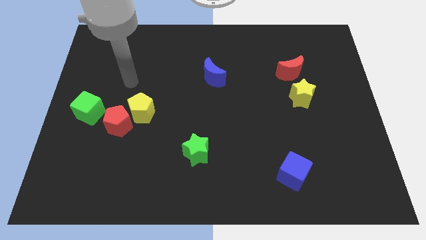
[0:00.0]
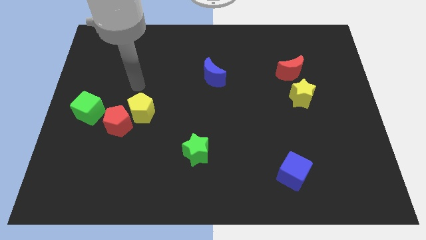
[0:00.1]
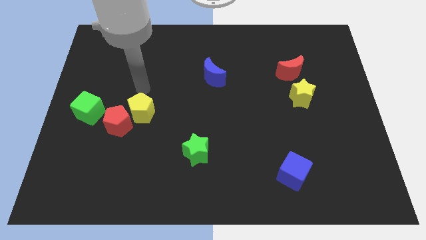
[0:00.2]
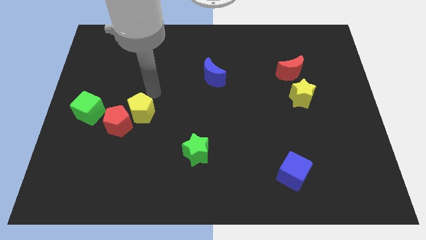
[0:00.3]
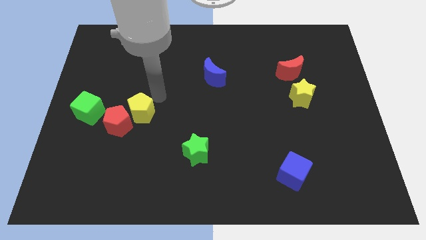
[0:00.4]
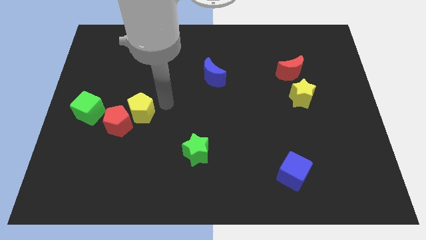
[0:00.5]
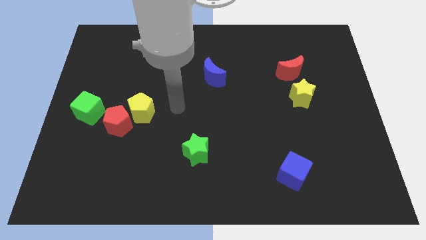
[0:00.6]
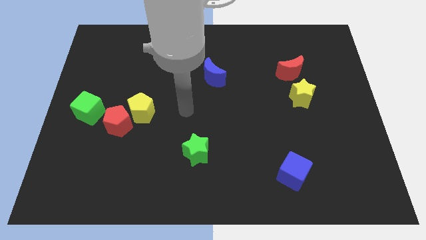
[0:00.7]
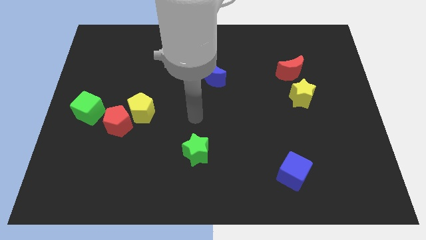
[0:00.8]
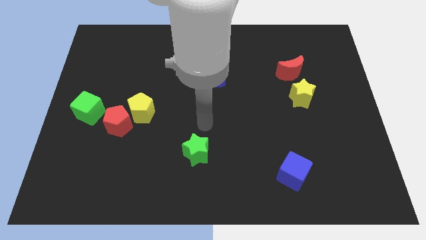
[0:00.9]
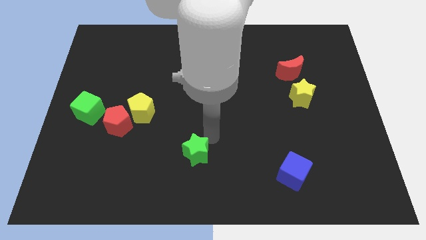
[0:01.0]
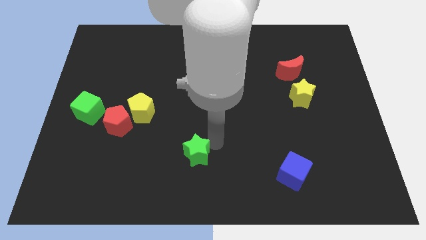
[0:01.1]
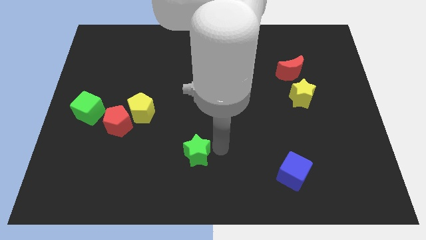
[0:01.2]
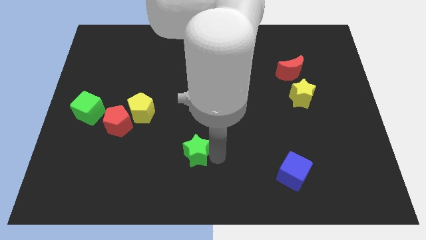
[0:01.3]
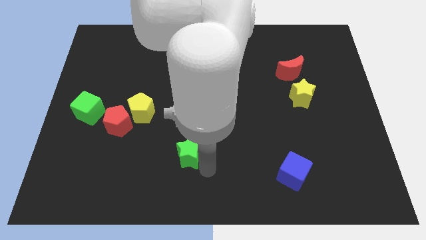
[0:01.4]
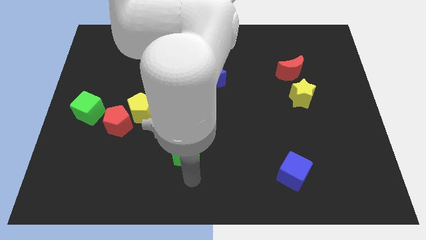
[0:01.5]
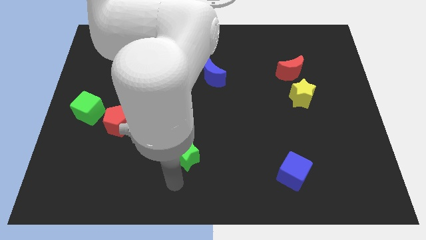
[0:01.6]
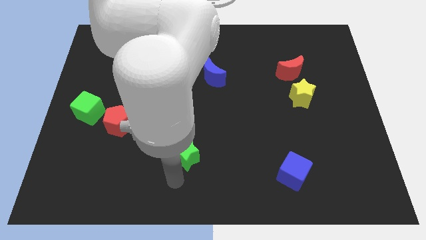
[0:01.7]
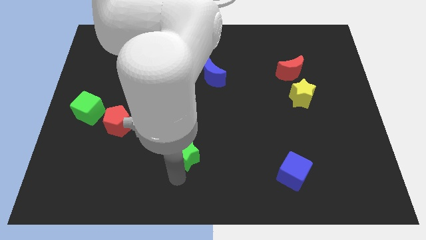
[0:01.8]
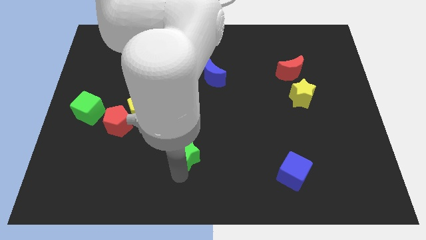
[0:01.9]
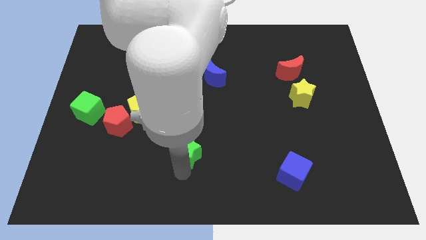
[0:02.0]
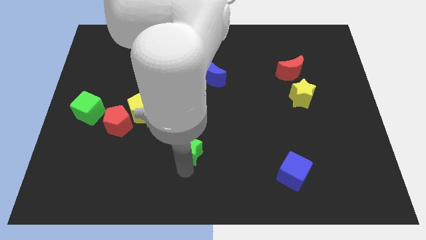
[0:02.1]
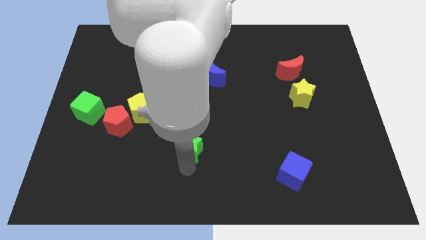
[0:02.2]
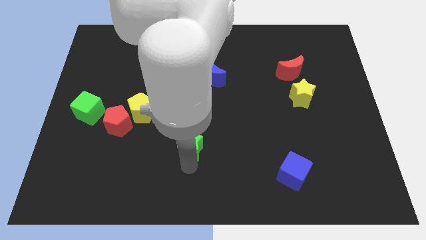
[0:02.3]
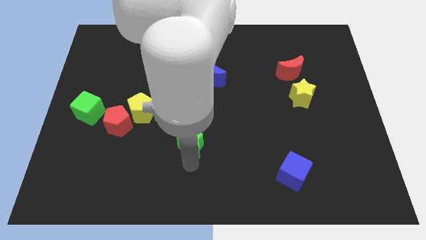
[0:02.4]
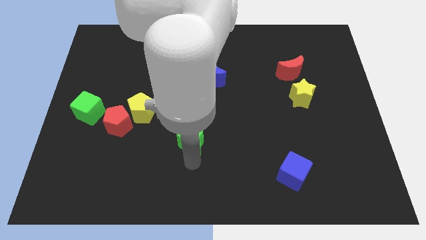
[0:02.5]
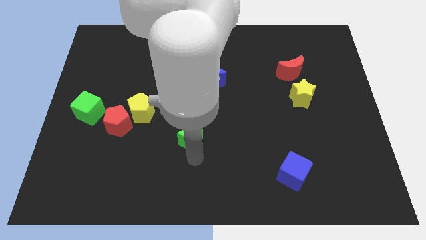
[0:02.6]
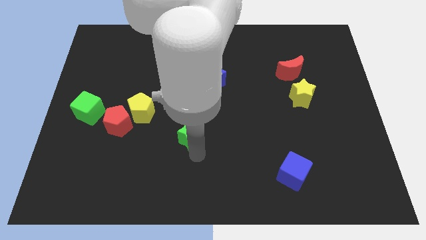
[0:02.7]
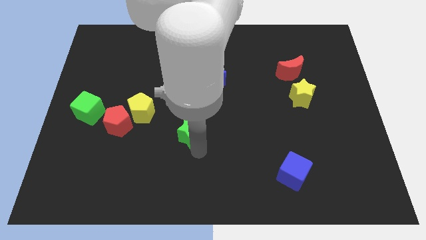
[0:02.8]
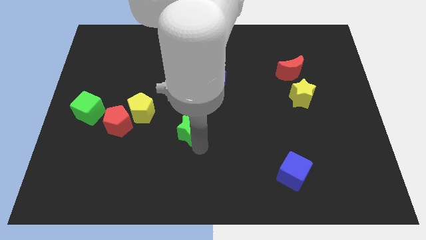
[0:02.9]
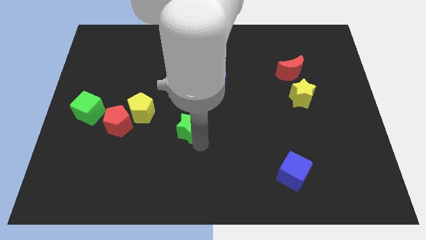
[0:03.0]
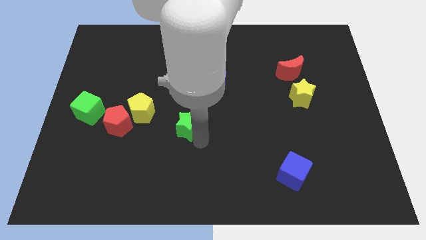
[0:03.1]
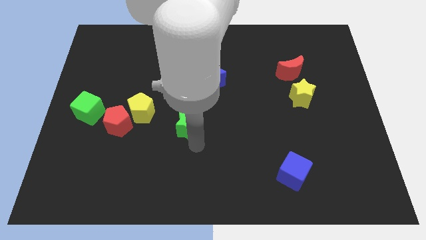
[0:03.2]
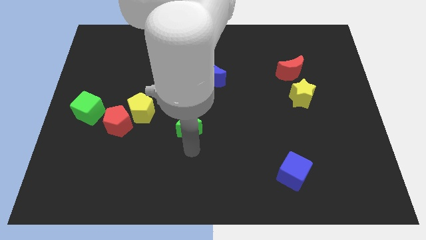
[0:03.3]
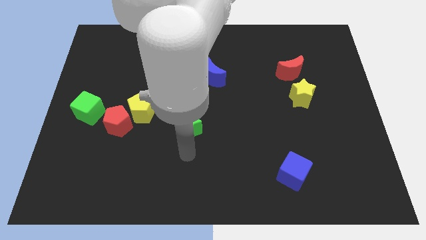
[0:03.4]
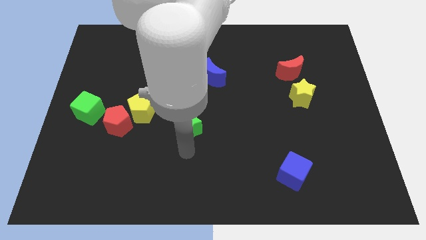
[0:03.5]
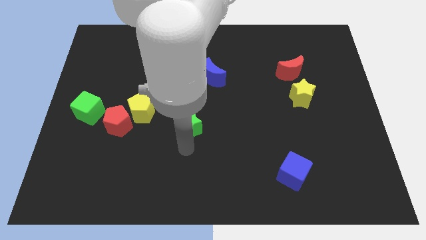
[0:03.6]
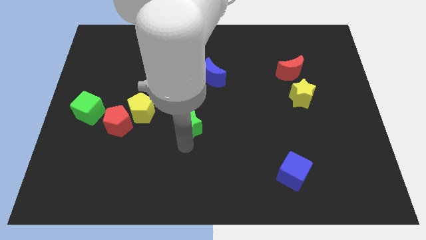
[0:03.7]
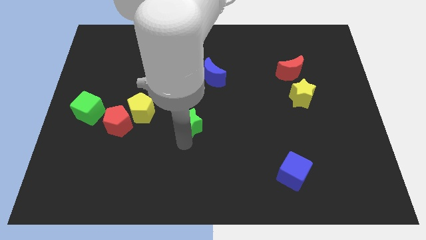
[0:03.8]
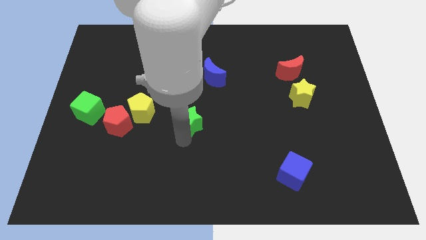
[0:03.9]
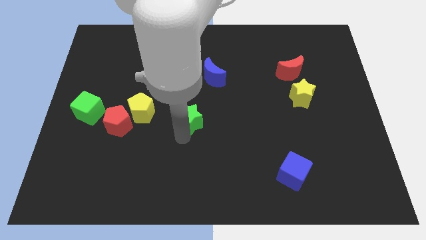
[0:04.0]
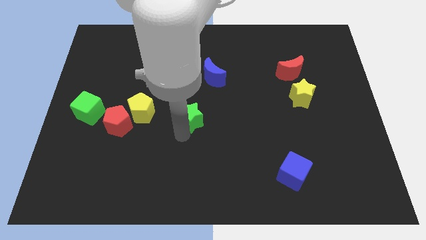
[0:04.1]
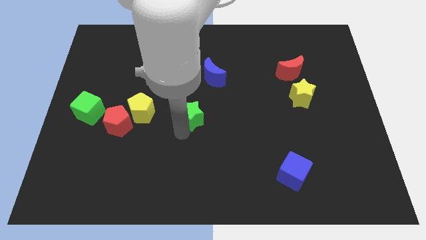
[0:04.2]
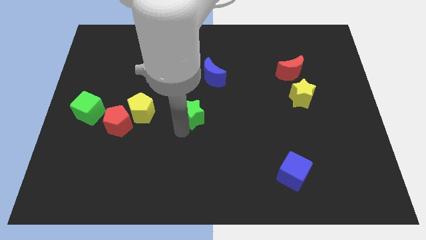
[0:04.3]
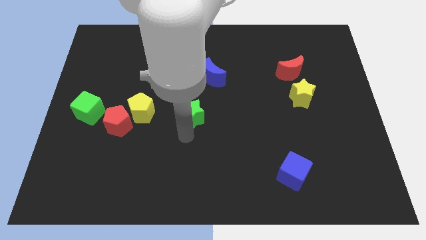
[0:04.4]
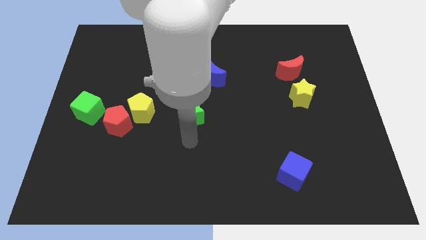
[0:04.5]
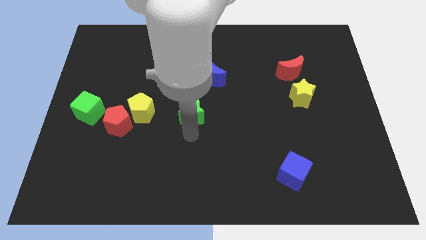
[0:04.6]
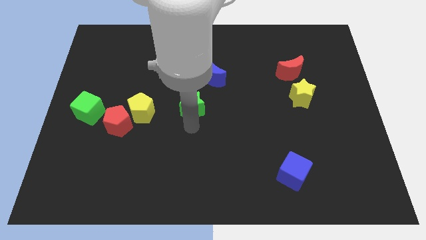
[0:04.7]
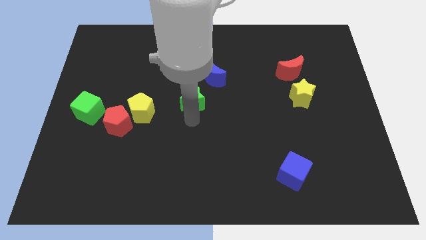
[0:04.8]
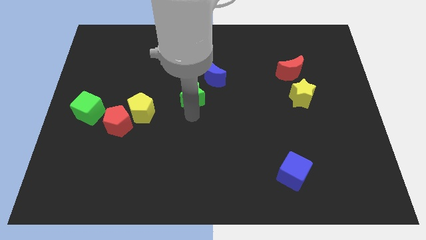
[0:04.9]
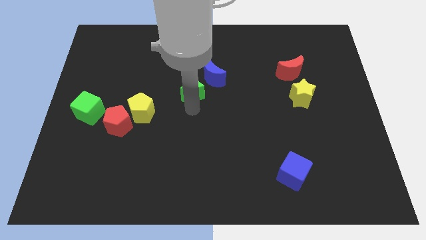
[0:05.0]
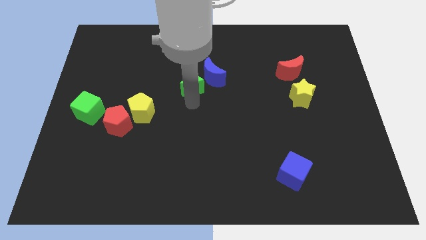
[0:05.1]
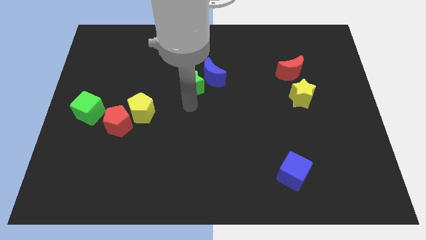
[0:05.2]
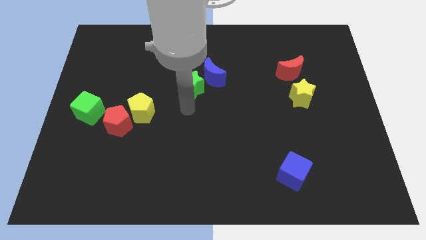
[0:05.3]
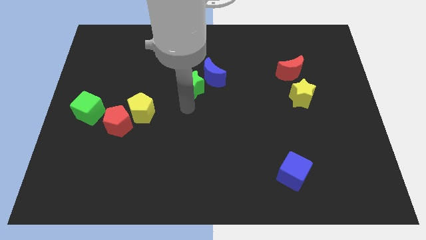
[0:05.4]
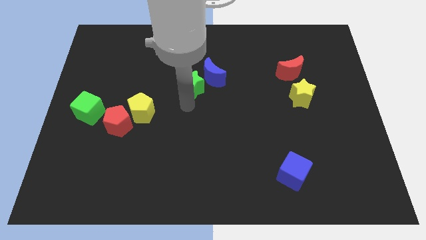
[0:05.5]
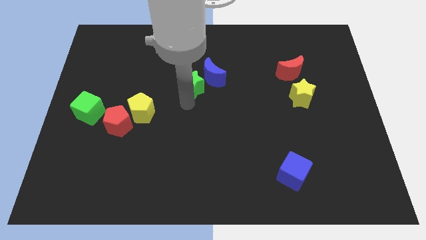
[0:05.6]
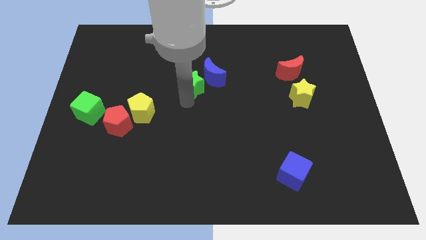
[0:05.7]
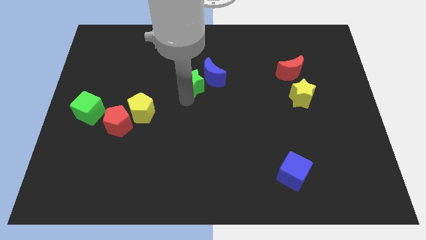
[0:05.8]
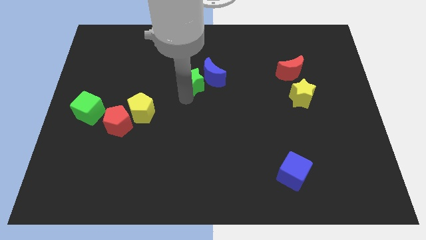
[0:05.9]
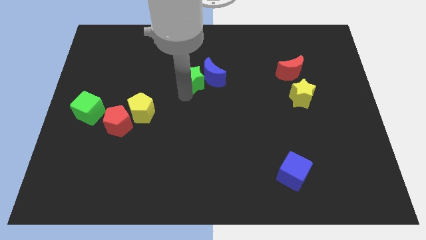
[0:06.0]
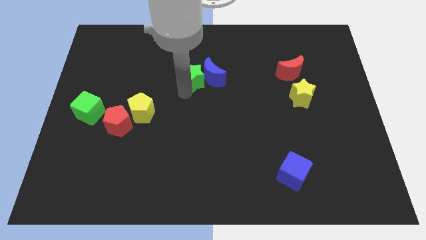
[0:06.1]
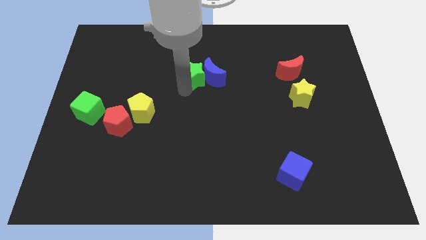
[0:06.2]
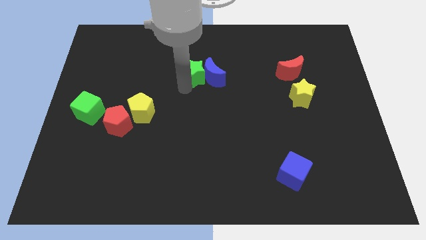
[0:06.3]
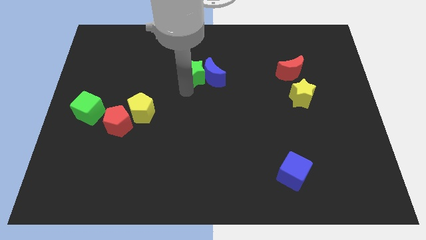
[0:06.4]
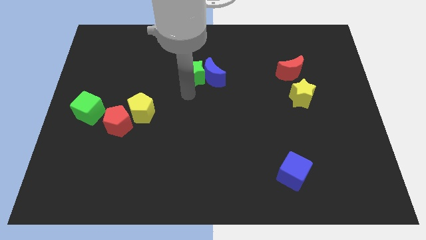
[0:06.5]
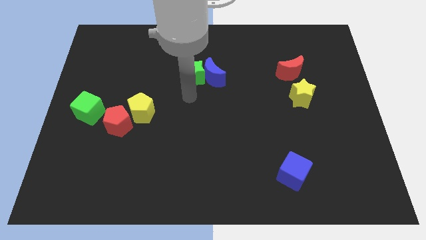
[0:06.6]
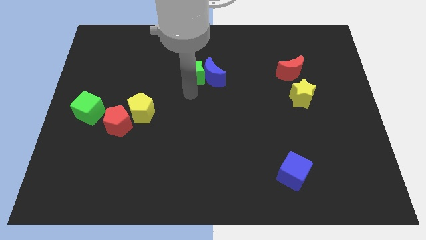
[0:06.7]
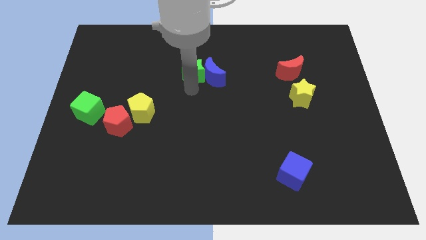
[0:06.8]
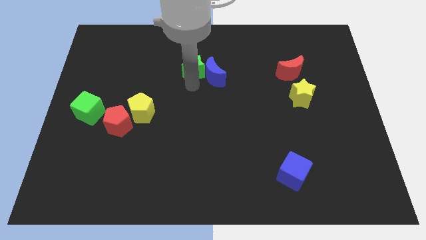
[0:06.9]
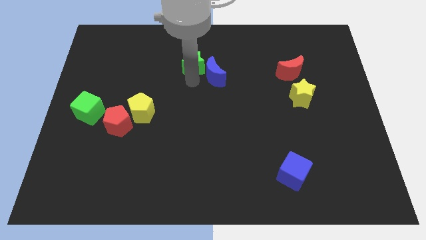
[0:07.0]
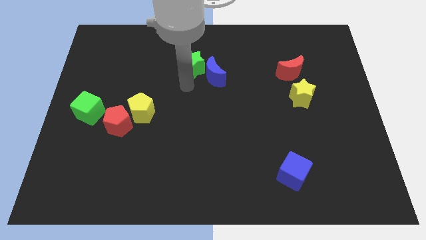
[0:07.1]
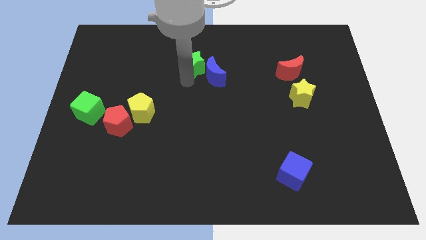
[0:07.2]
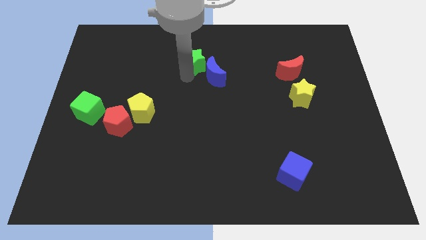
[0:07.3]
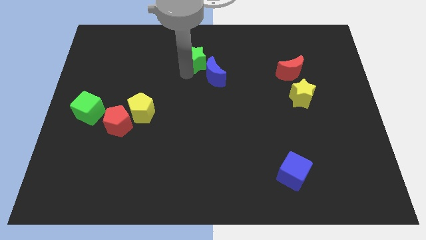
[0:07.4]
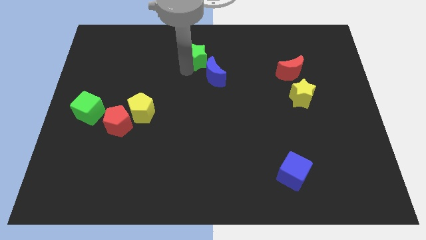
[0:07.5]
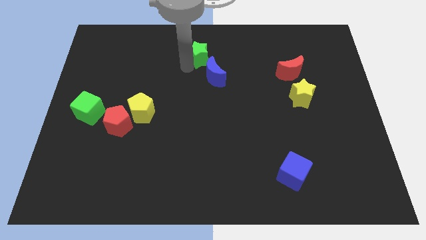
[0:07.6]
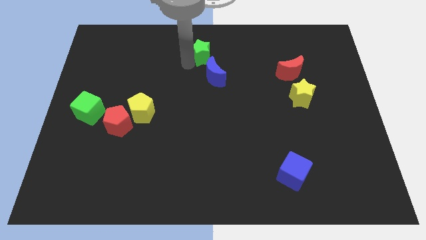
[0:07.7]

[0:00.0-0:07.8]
slide the green star to the towards your base
